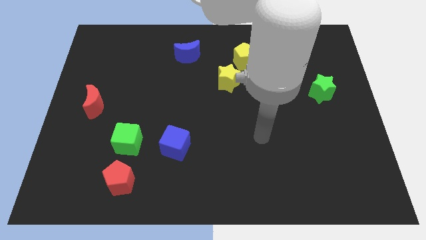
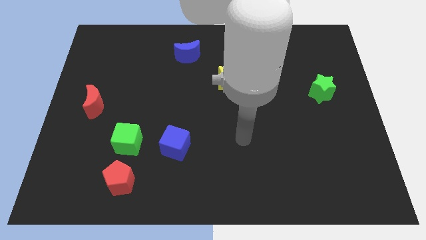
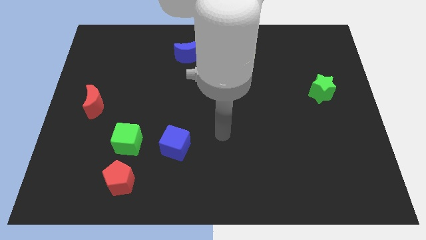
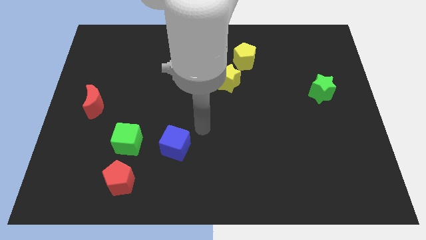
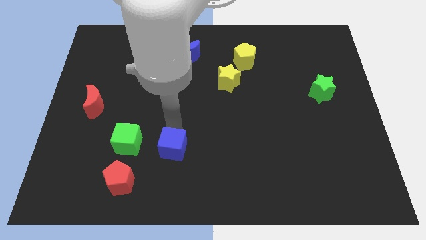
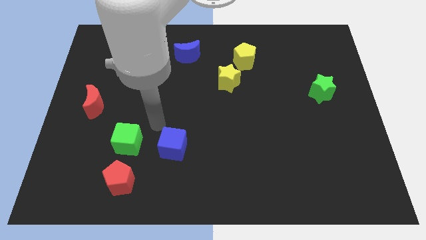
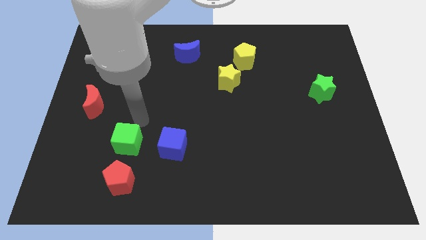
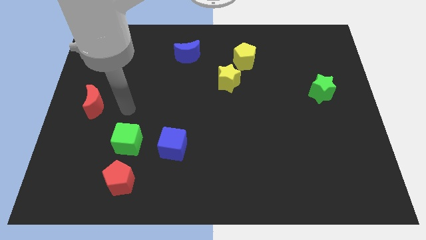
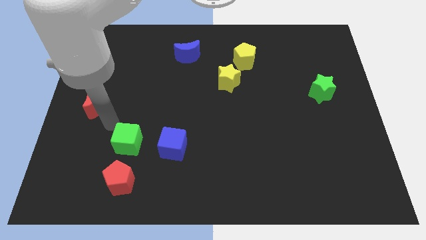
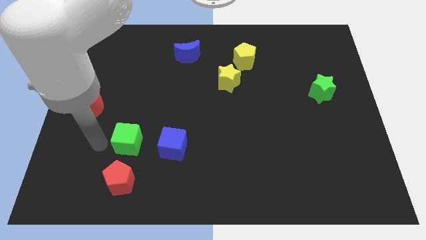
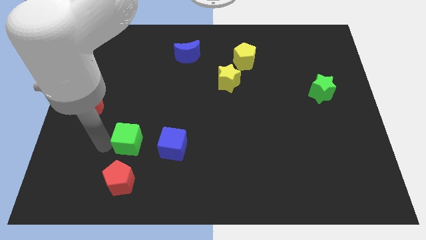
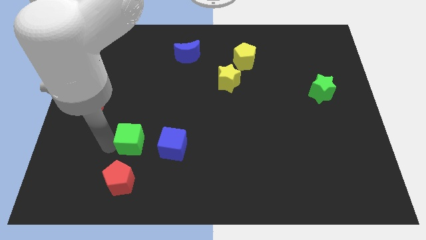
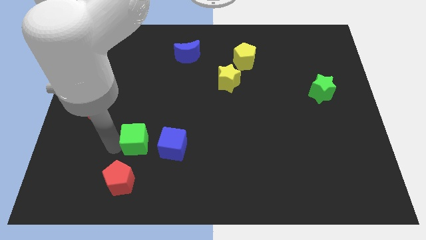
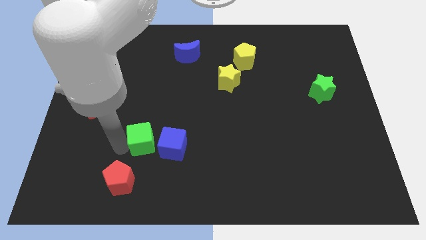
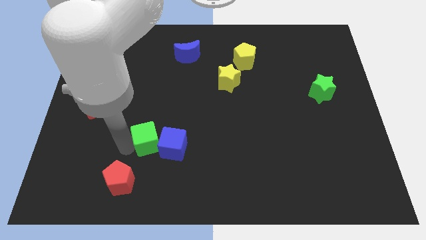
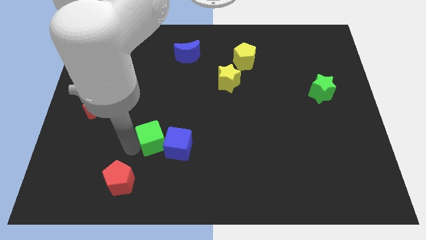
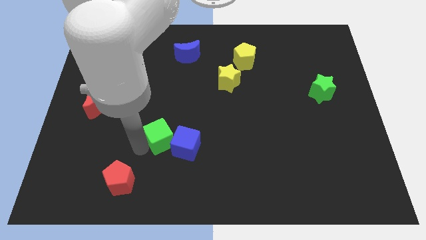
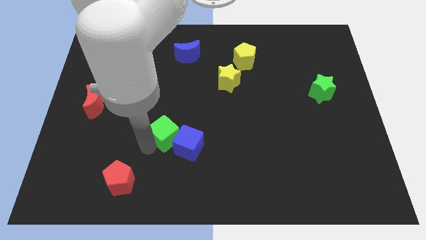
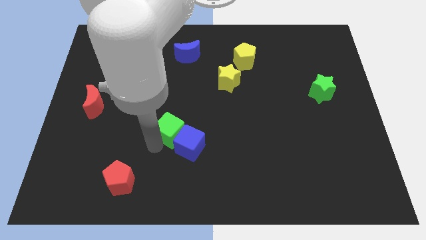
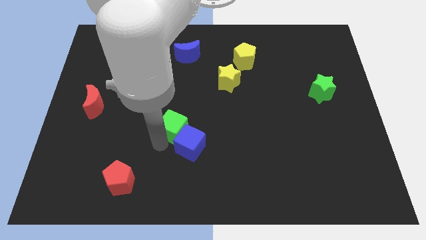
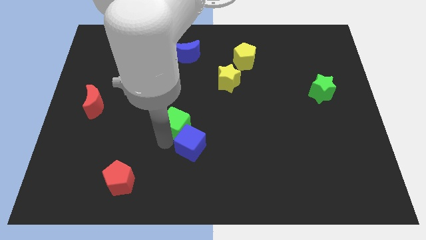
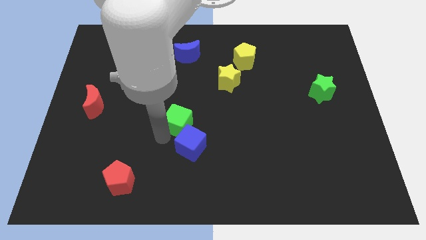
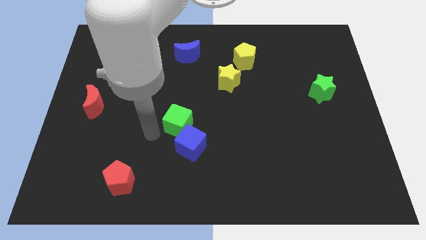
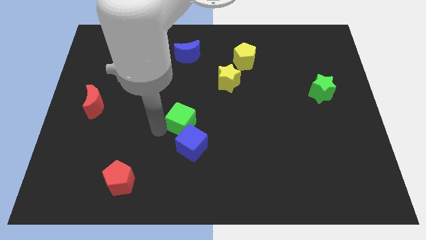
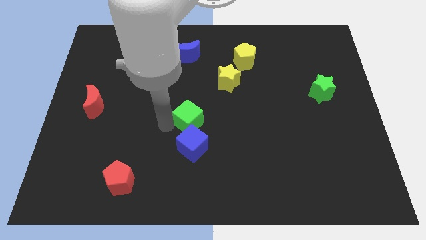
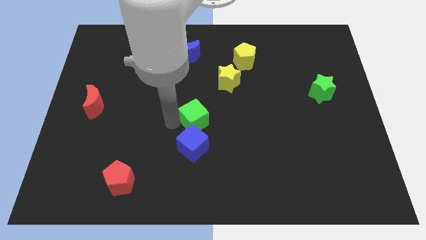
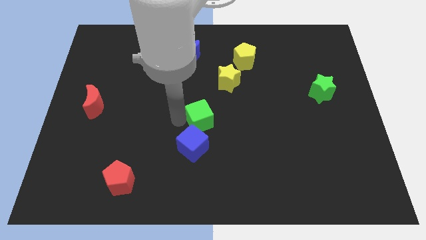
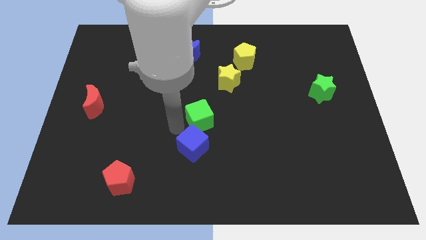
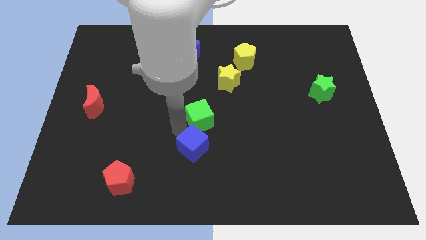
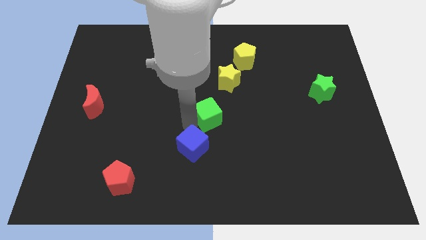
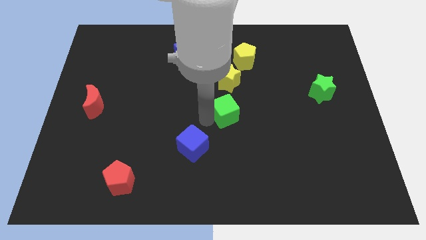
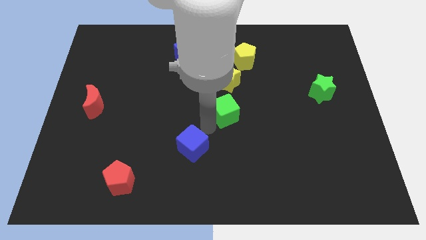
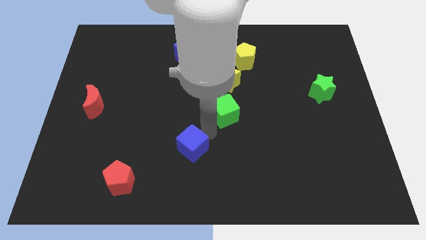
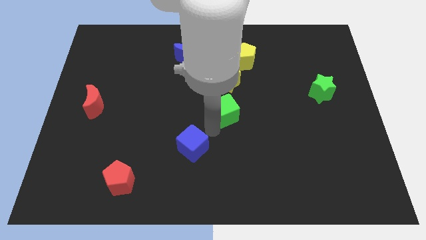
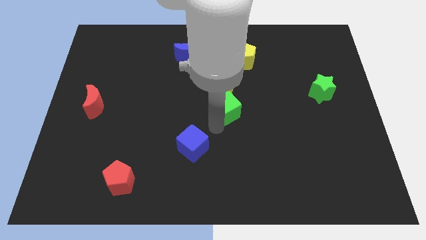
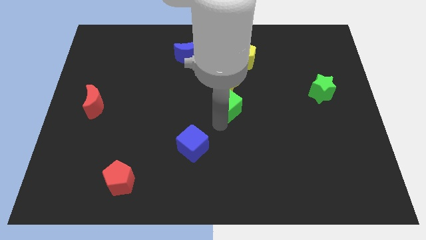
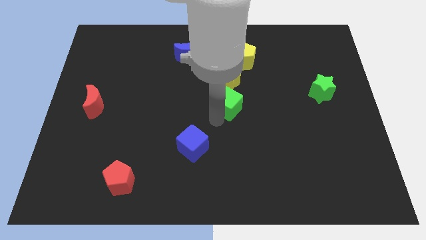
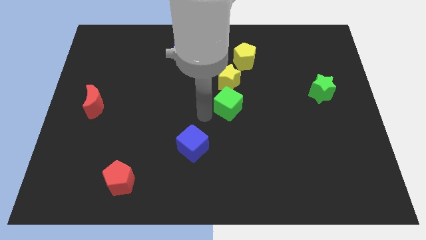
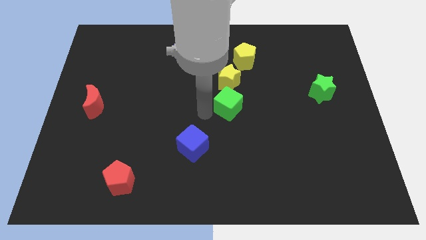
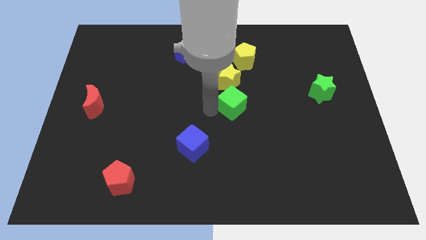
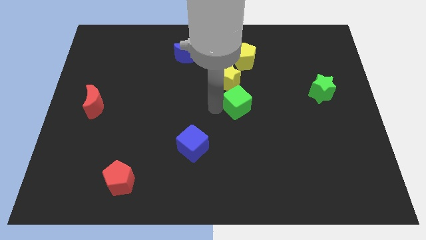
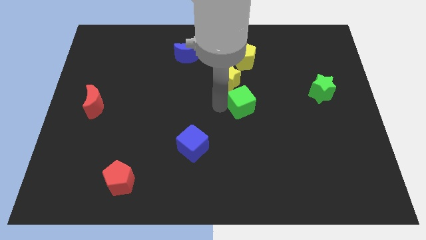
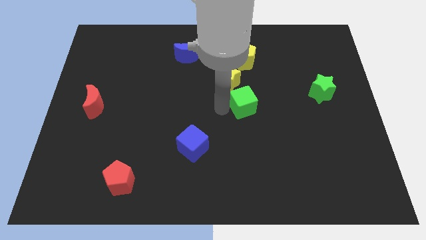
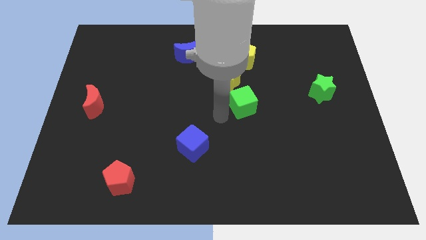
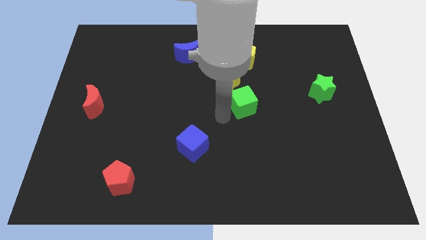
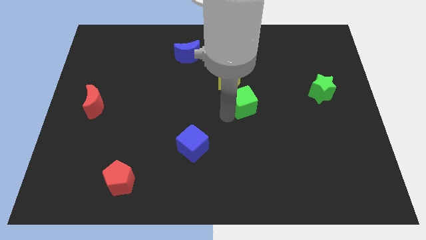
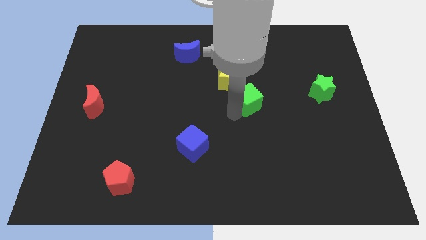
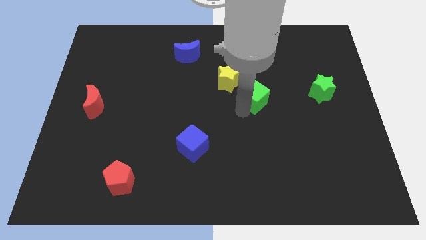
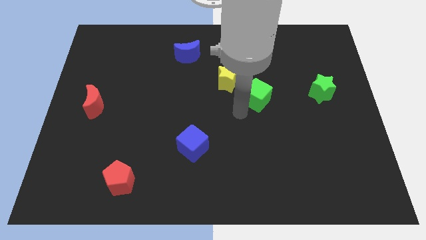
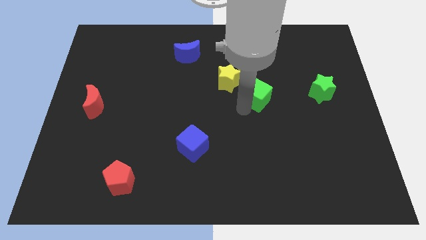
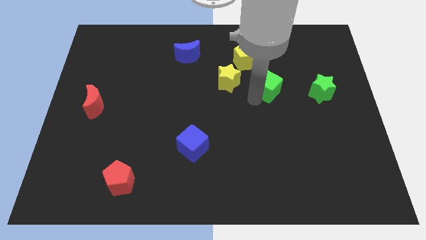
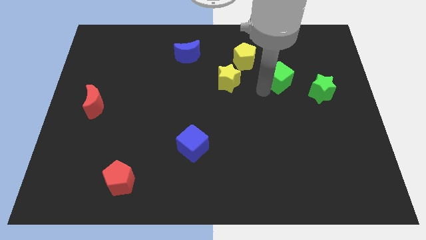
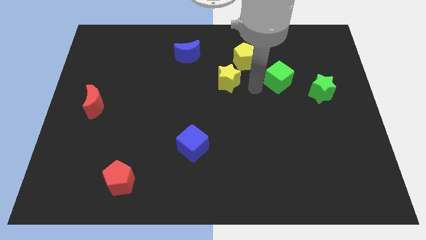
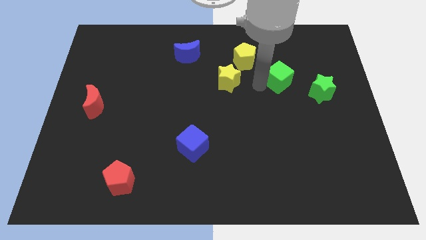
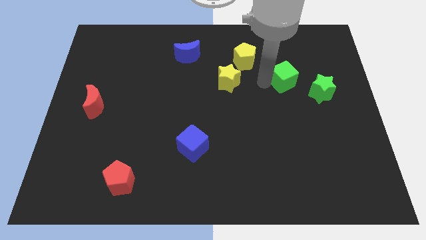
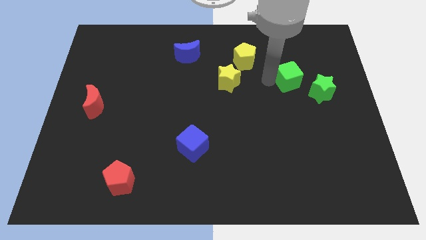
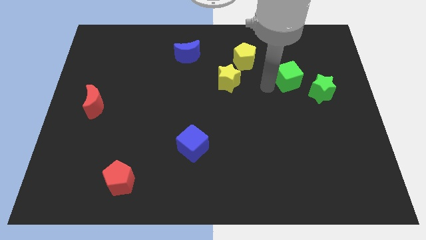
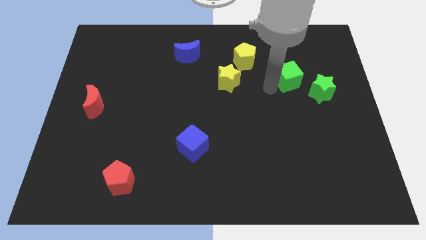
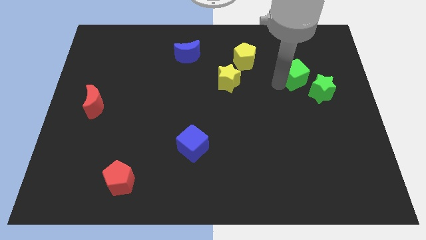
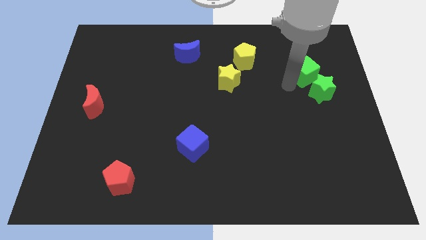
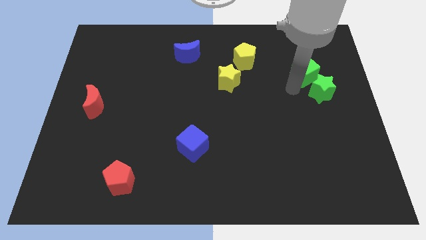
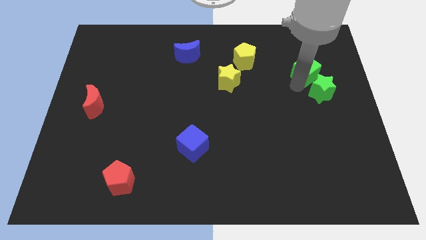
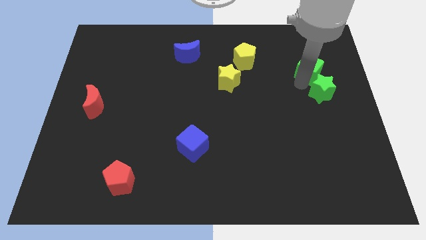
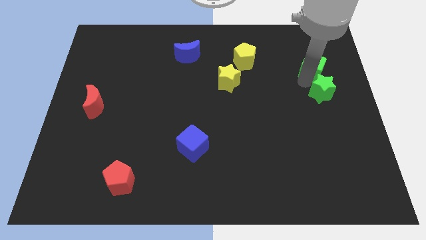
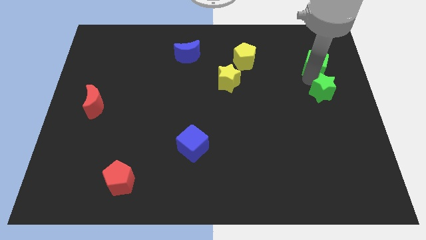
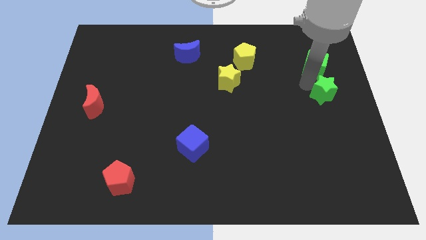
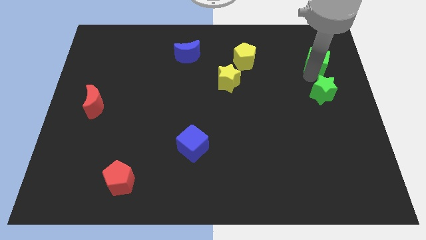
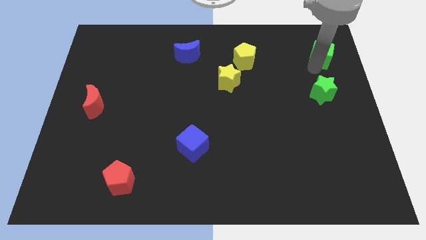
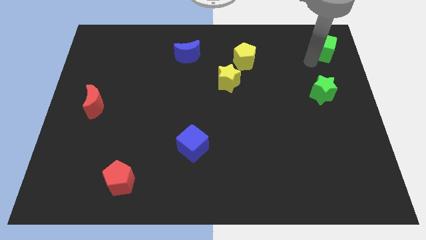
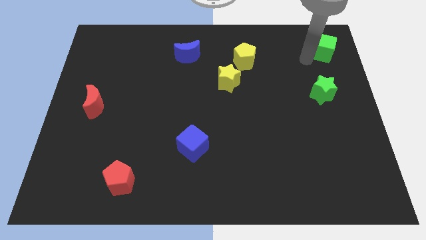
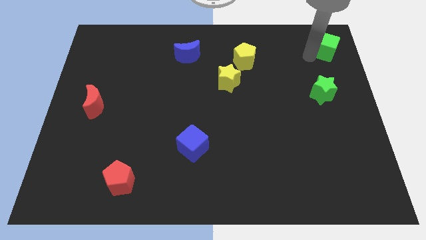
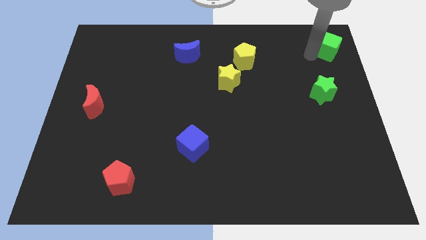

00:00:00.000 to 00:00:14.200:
put the green cube to the top right
